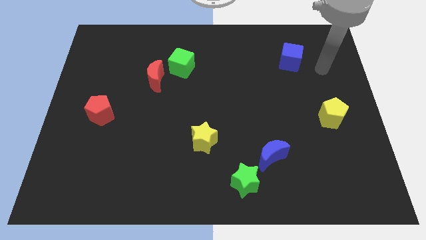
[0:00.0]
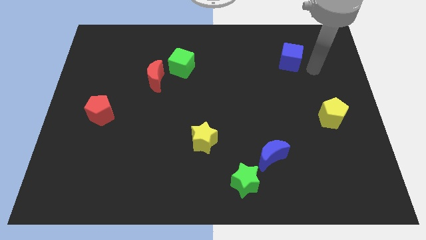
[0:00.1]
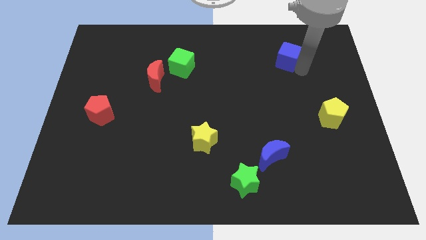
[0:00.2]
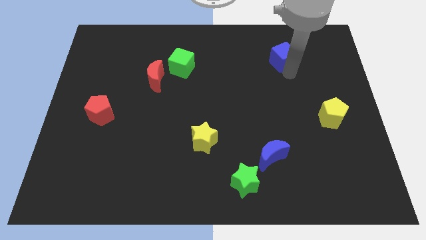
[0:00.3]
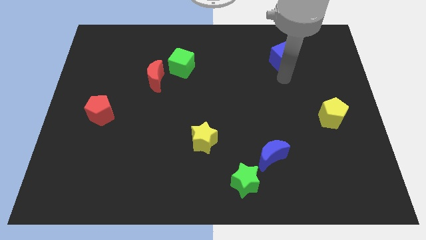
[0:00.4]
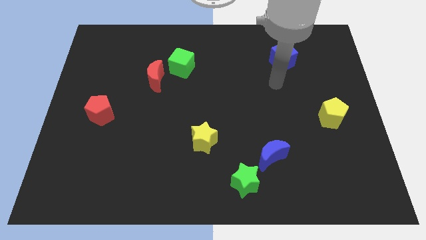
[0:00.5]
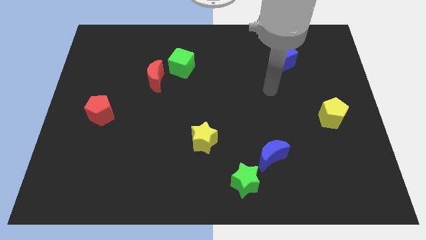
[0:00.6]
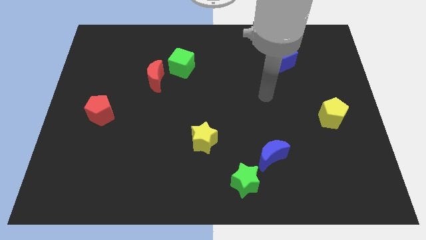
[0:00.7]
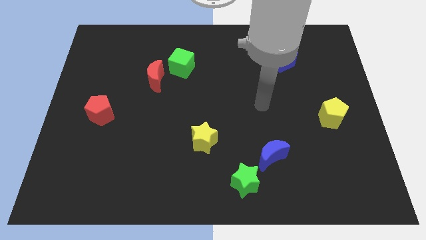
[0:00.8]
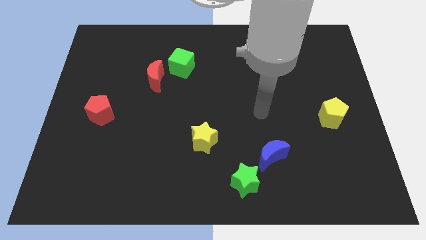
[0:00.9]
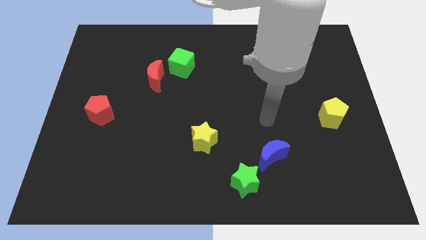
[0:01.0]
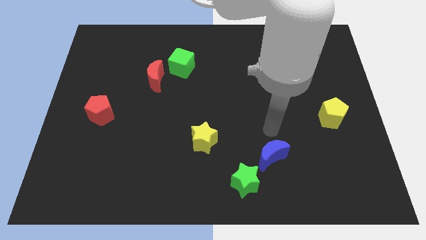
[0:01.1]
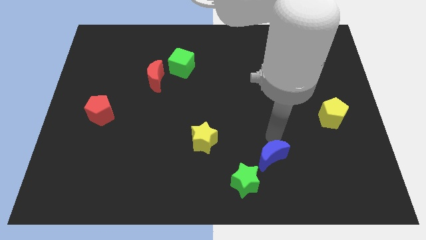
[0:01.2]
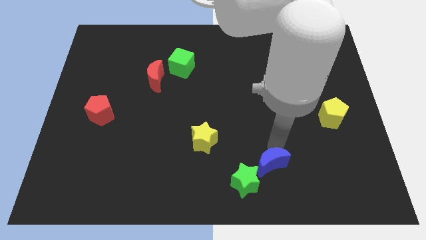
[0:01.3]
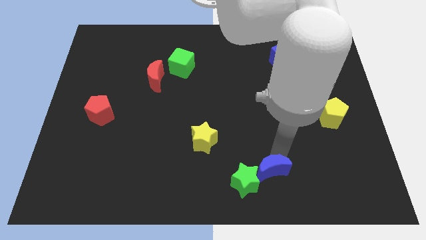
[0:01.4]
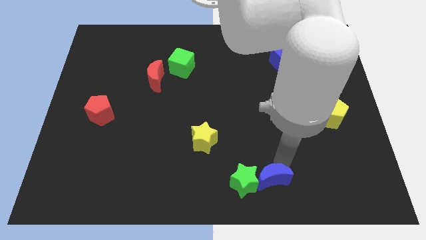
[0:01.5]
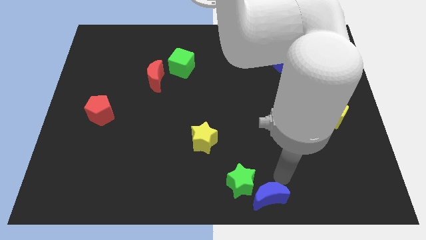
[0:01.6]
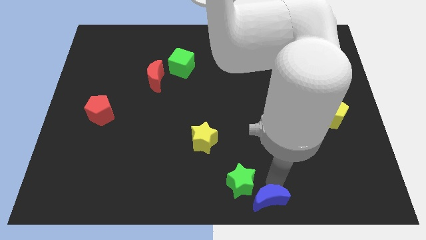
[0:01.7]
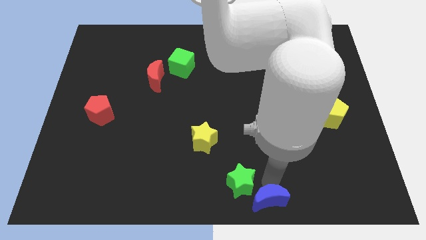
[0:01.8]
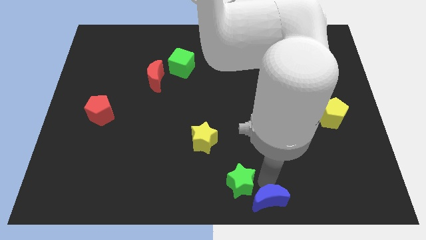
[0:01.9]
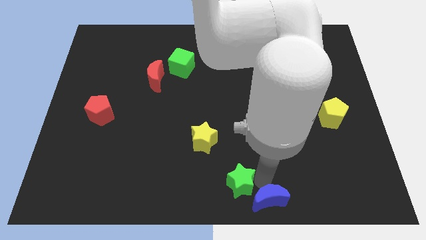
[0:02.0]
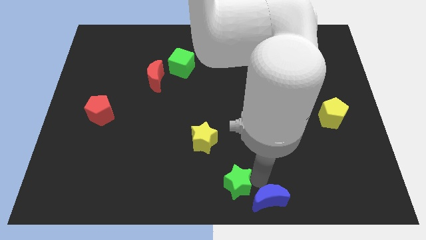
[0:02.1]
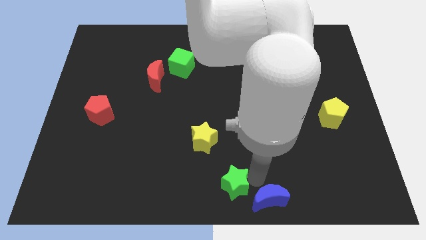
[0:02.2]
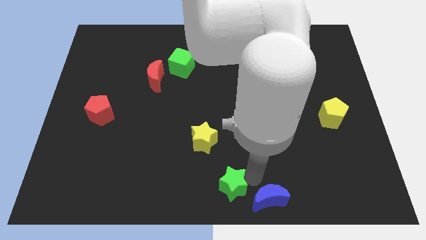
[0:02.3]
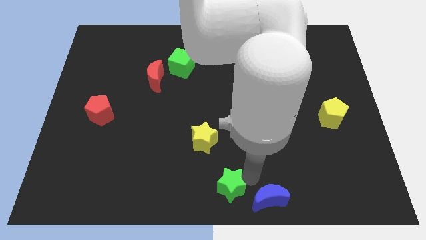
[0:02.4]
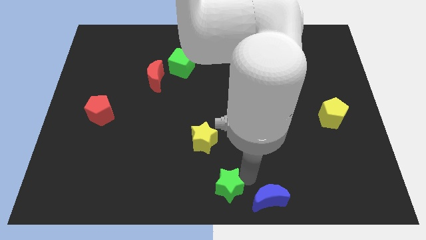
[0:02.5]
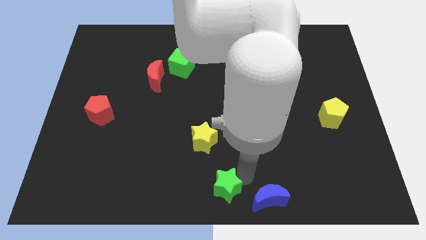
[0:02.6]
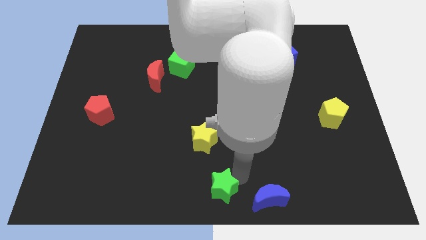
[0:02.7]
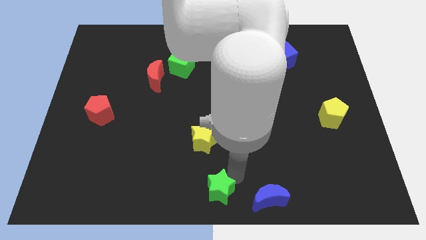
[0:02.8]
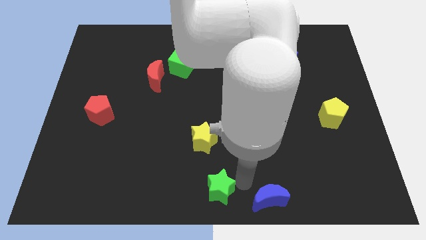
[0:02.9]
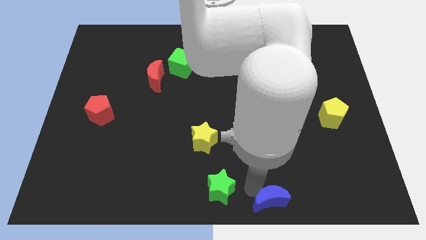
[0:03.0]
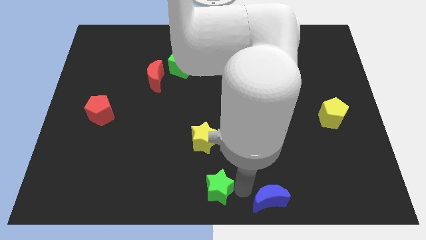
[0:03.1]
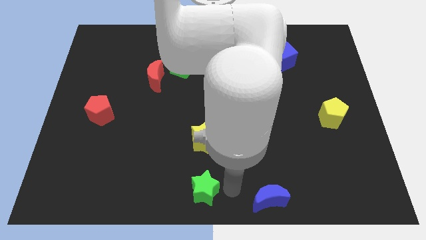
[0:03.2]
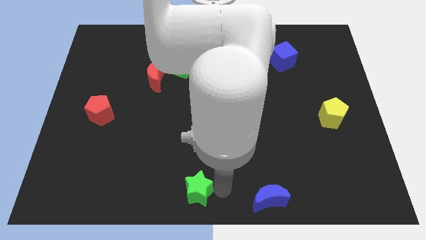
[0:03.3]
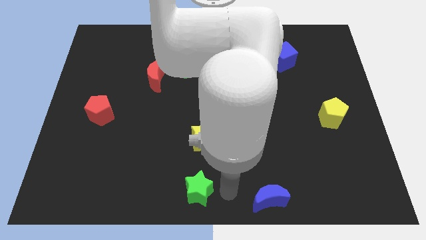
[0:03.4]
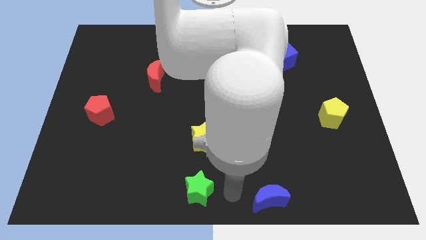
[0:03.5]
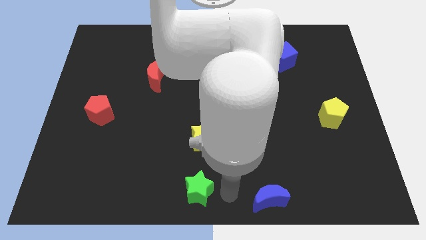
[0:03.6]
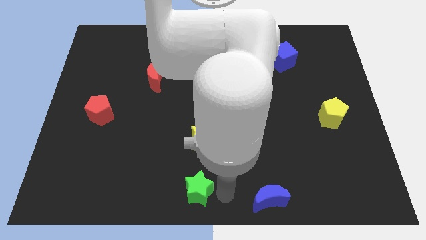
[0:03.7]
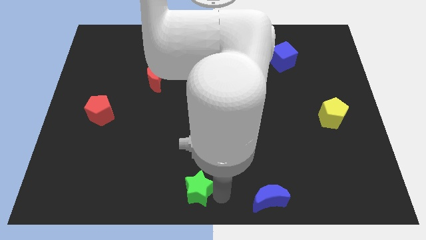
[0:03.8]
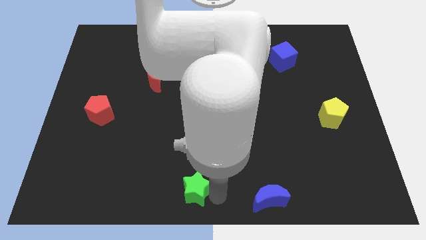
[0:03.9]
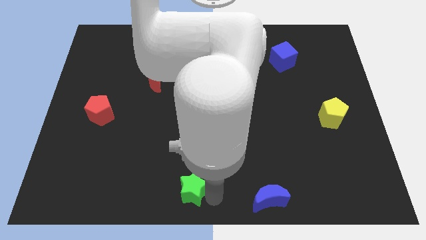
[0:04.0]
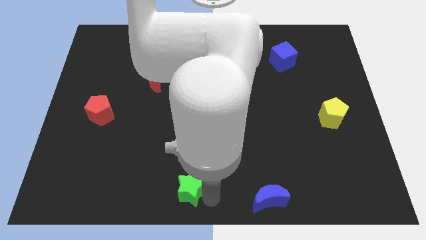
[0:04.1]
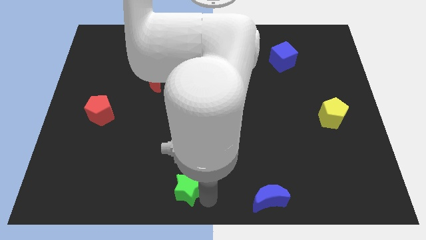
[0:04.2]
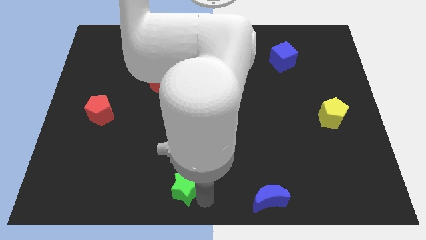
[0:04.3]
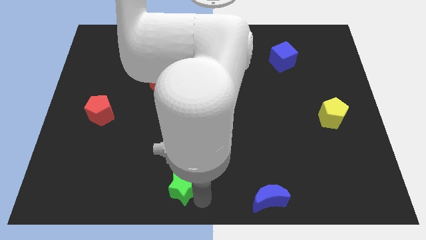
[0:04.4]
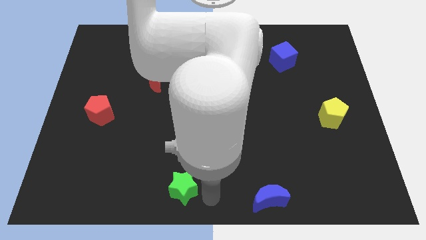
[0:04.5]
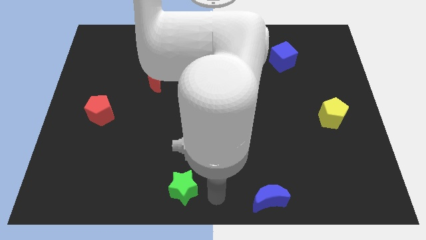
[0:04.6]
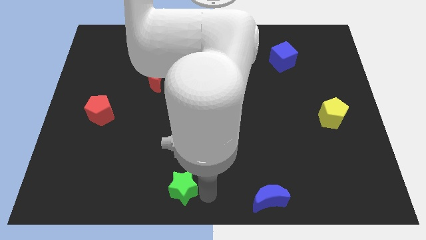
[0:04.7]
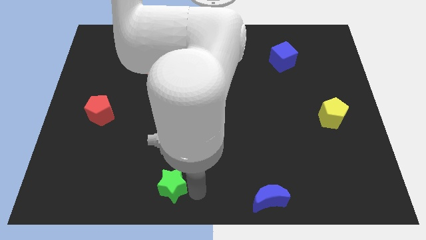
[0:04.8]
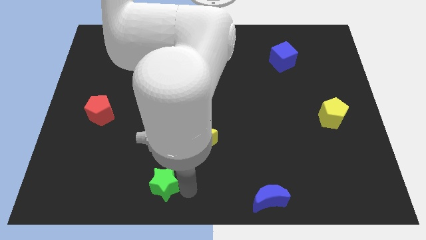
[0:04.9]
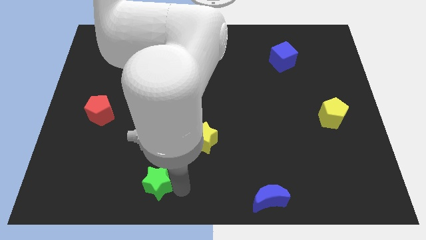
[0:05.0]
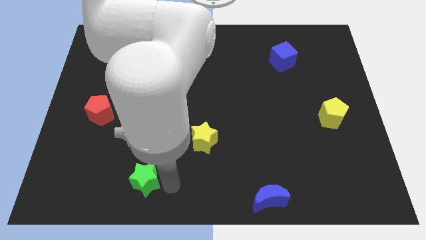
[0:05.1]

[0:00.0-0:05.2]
move the green star left

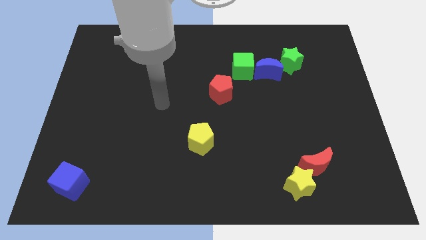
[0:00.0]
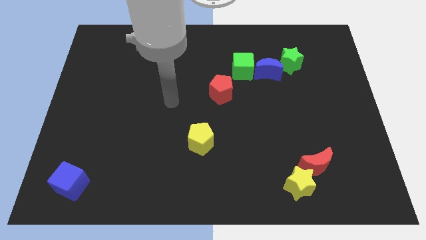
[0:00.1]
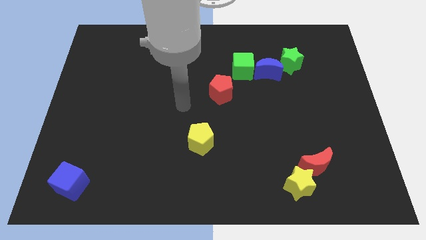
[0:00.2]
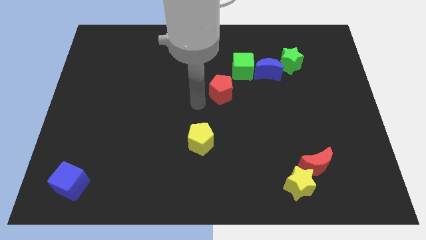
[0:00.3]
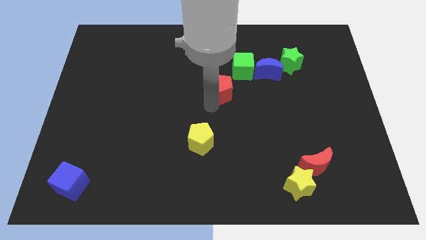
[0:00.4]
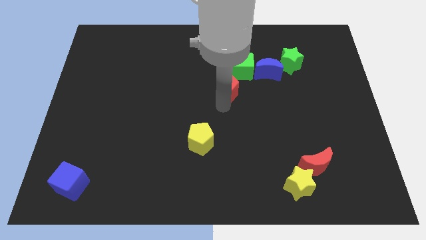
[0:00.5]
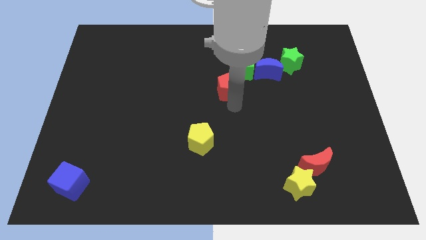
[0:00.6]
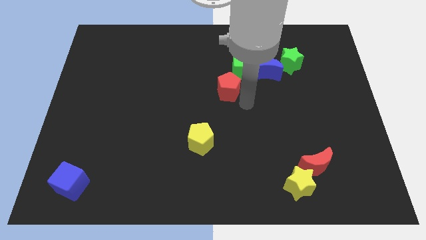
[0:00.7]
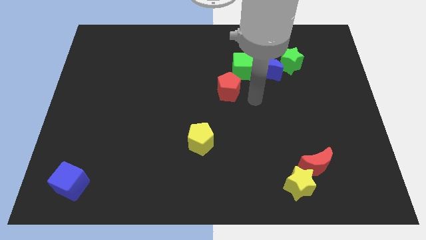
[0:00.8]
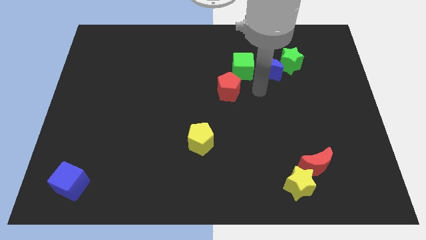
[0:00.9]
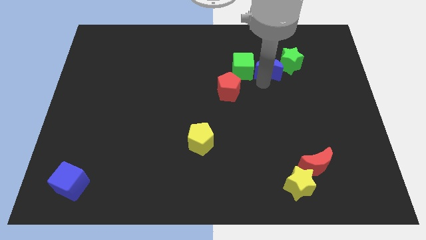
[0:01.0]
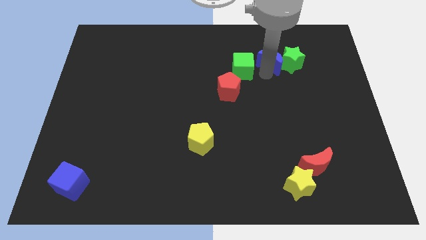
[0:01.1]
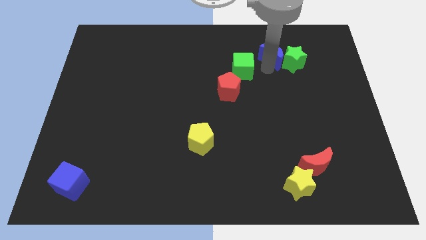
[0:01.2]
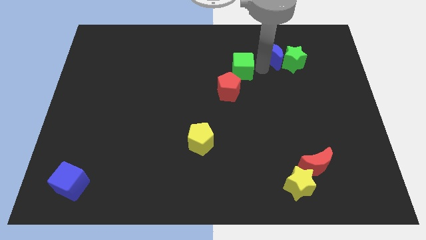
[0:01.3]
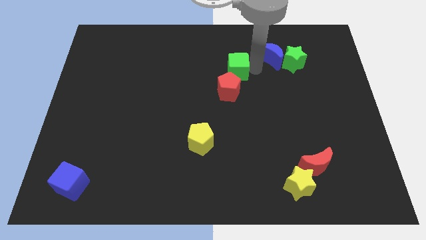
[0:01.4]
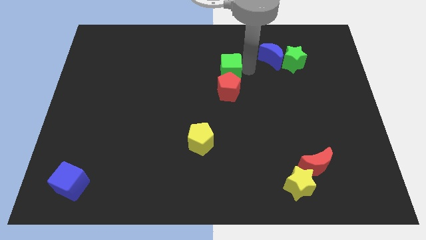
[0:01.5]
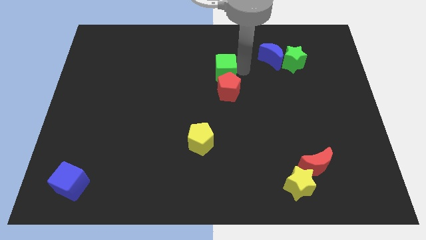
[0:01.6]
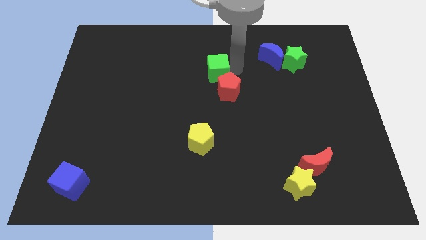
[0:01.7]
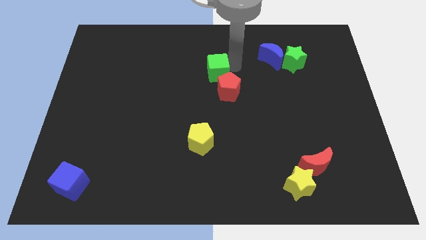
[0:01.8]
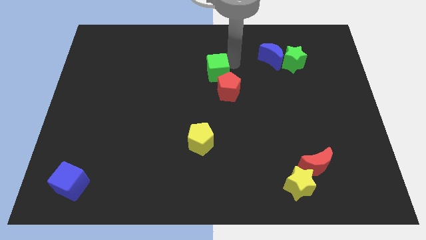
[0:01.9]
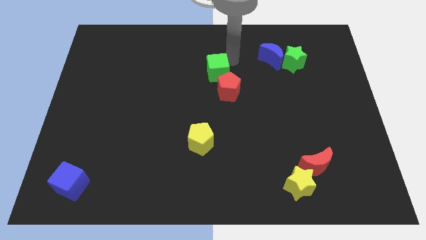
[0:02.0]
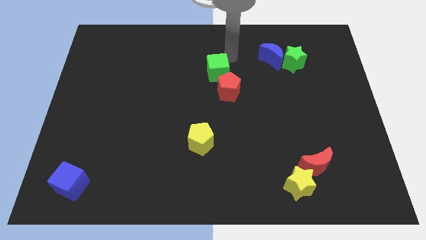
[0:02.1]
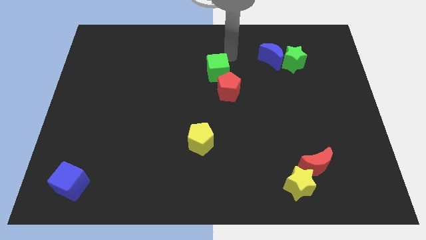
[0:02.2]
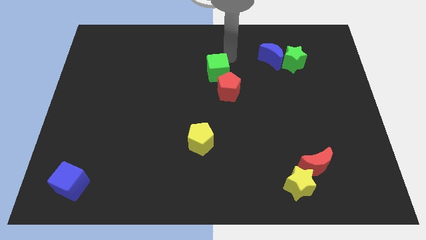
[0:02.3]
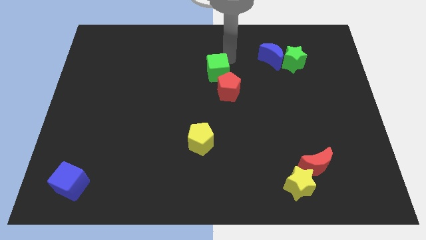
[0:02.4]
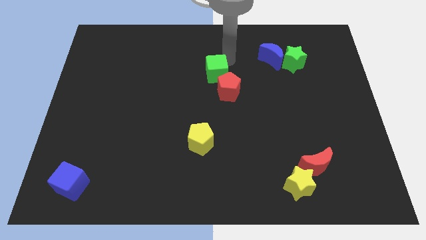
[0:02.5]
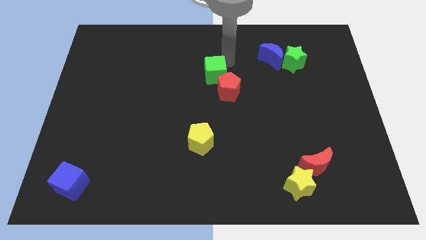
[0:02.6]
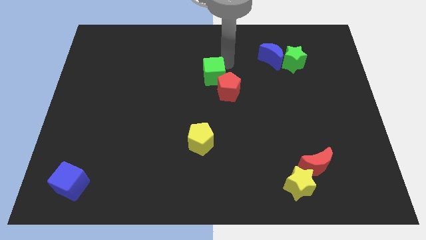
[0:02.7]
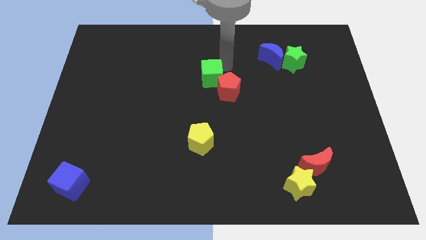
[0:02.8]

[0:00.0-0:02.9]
slide the green cube somewhat down and to the left diagonally
